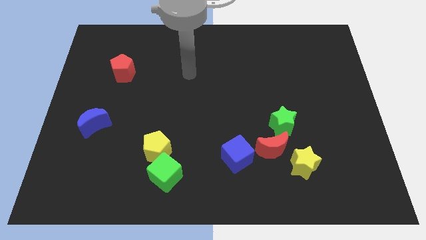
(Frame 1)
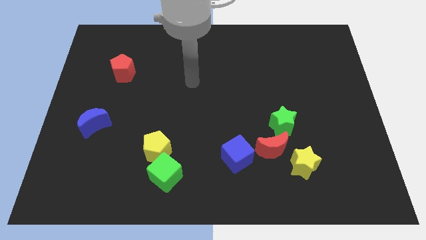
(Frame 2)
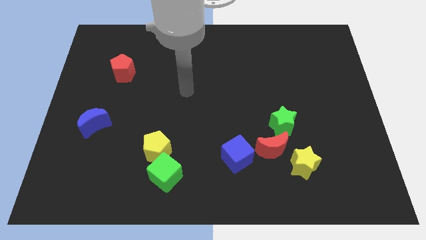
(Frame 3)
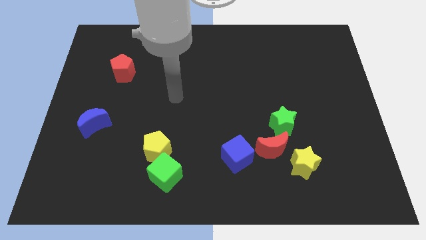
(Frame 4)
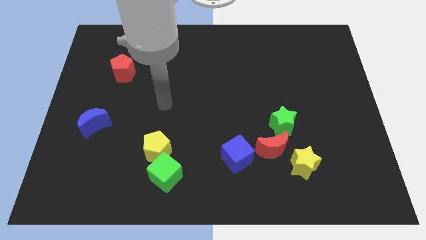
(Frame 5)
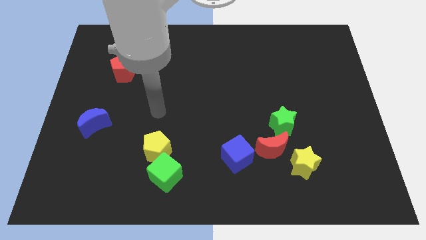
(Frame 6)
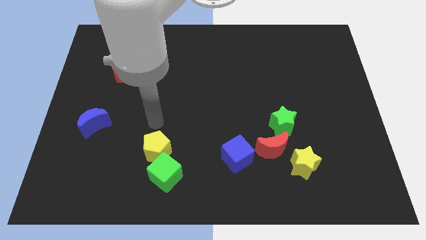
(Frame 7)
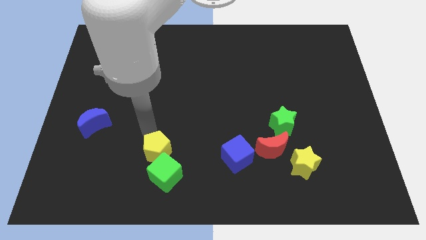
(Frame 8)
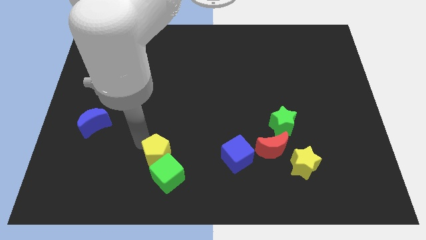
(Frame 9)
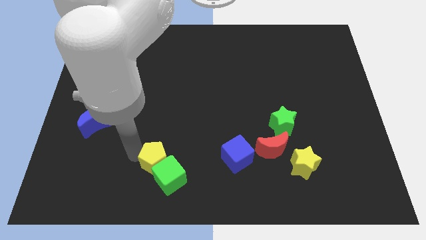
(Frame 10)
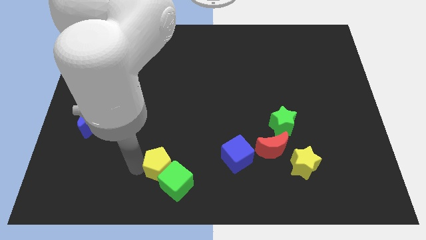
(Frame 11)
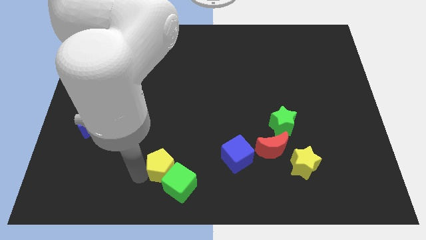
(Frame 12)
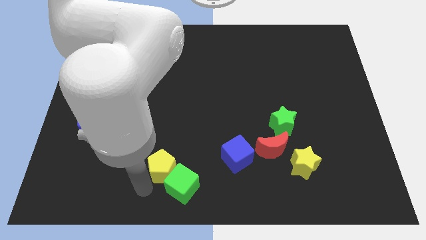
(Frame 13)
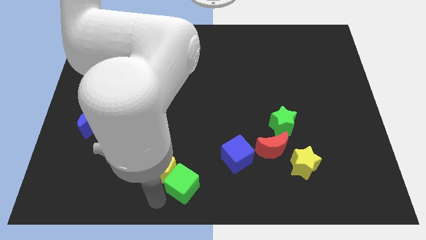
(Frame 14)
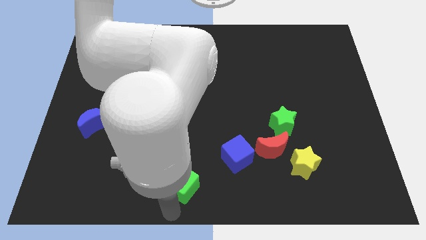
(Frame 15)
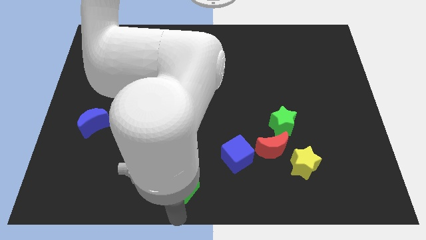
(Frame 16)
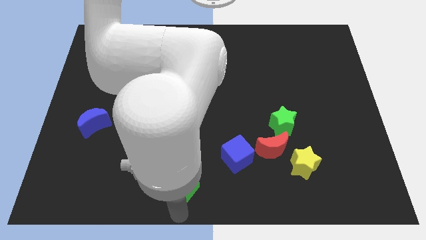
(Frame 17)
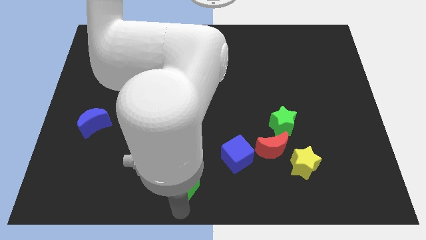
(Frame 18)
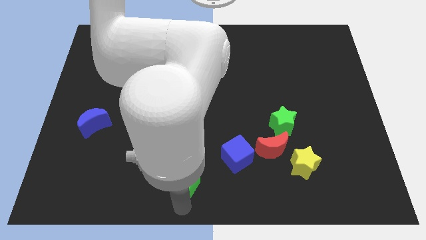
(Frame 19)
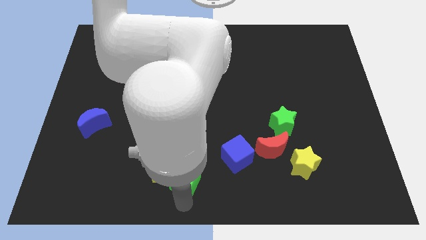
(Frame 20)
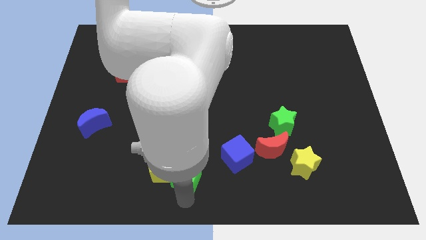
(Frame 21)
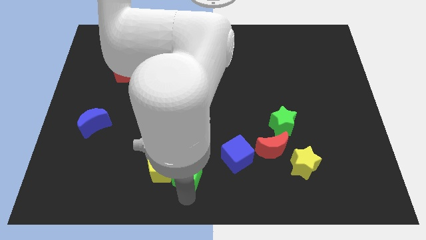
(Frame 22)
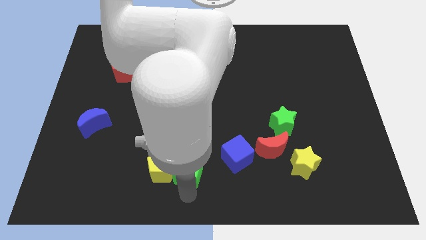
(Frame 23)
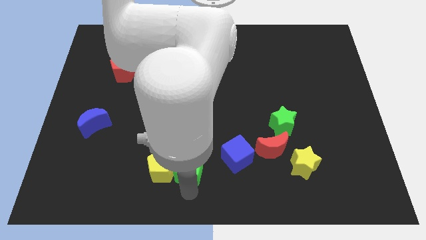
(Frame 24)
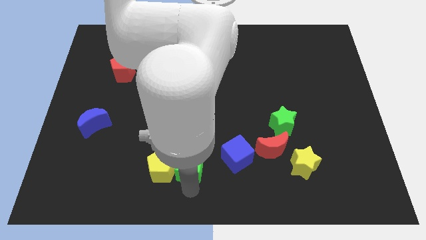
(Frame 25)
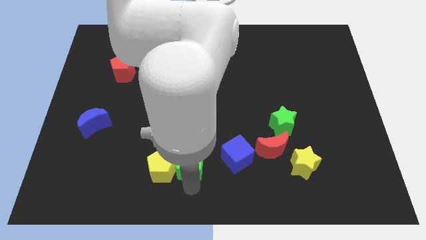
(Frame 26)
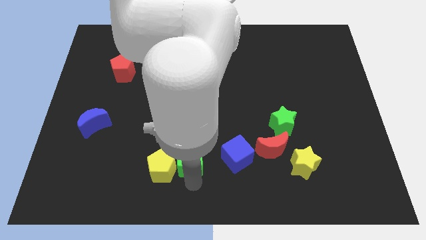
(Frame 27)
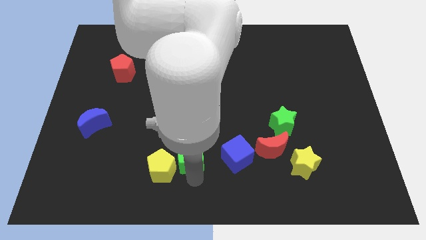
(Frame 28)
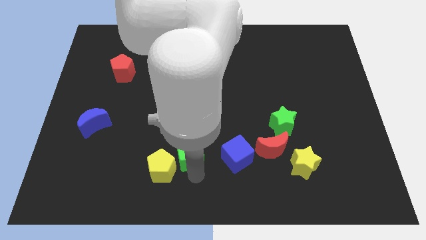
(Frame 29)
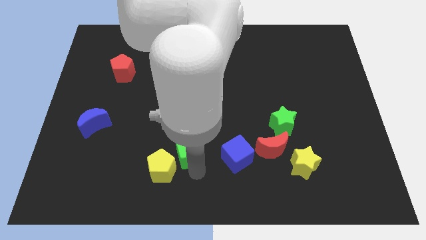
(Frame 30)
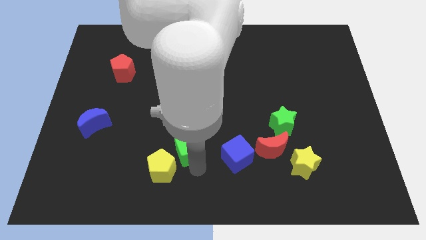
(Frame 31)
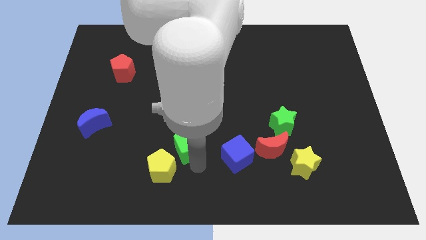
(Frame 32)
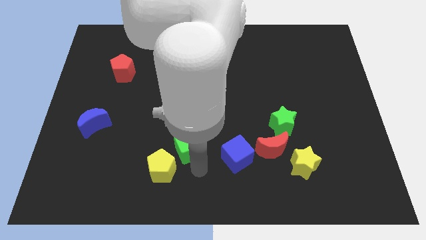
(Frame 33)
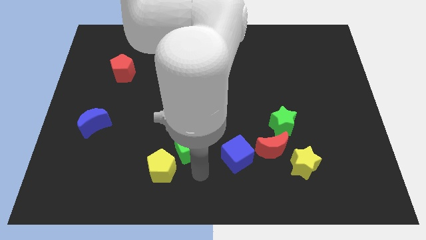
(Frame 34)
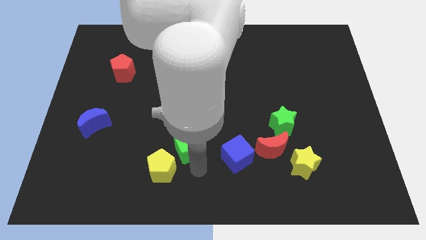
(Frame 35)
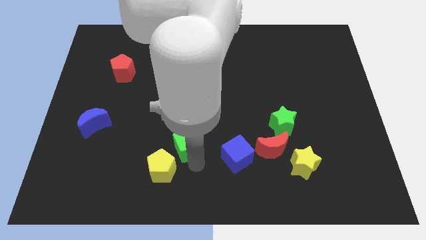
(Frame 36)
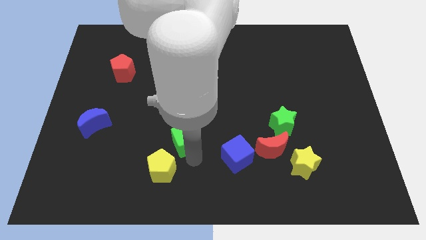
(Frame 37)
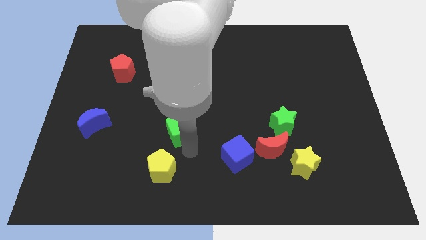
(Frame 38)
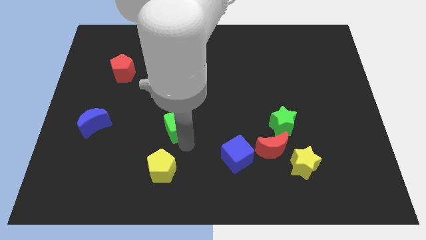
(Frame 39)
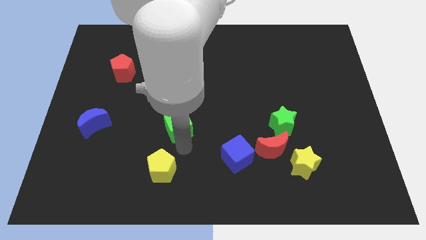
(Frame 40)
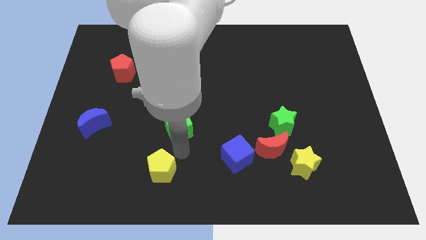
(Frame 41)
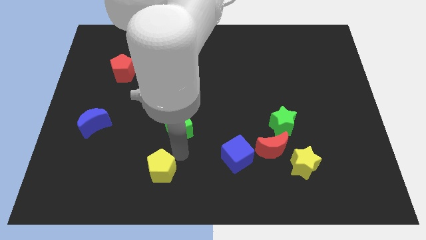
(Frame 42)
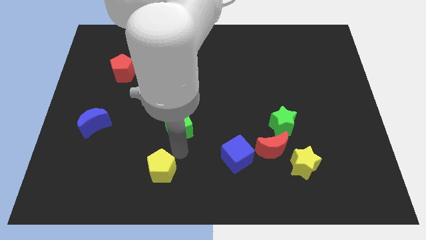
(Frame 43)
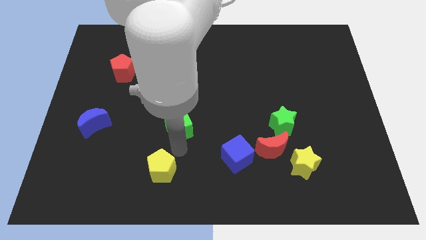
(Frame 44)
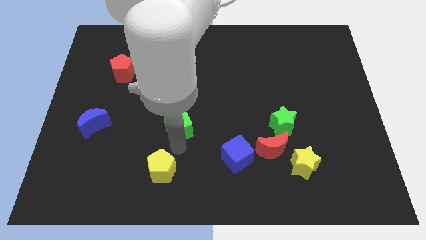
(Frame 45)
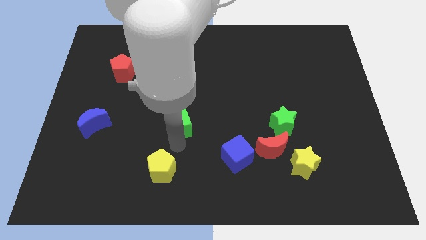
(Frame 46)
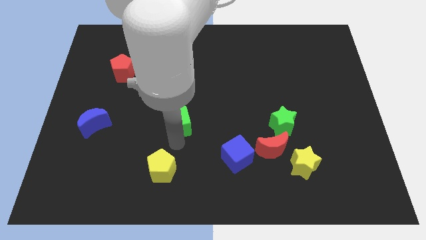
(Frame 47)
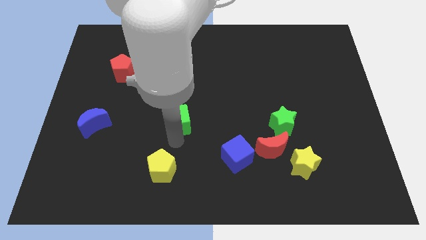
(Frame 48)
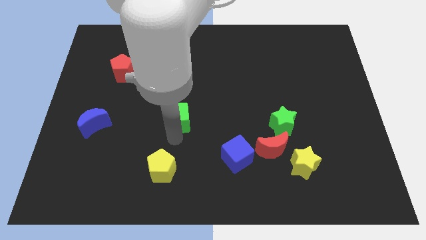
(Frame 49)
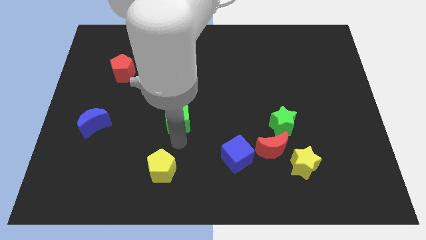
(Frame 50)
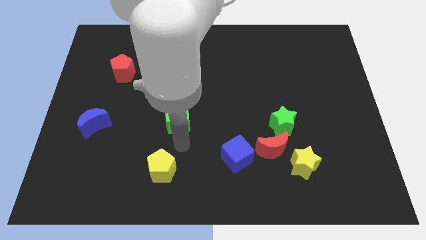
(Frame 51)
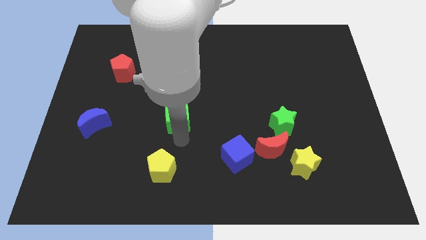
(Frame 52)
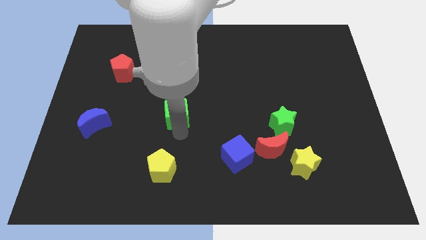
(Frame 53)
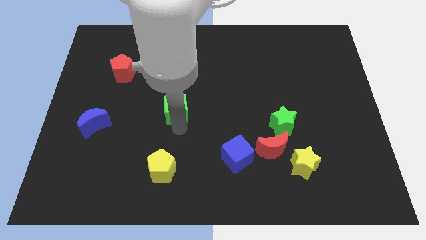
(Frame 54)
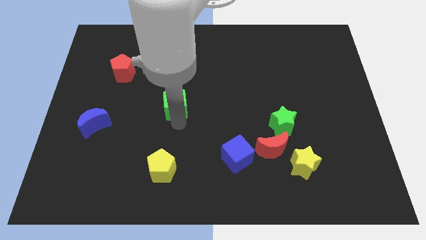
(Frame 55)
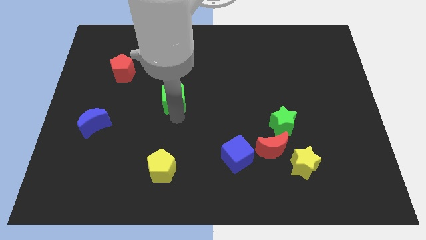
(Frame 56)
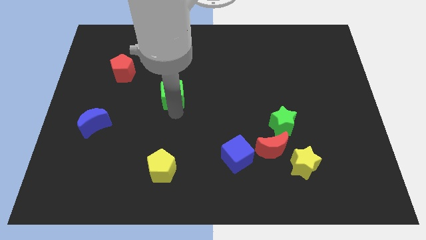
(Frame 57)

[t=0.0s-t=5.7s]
move the green cube up

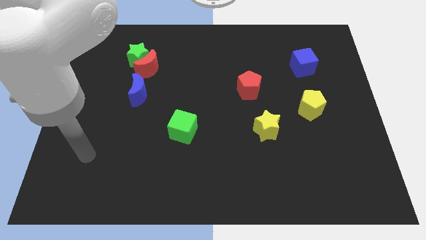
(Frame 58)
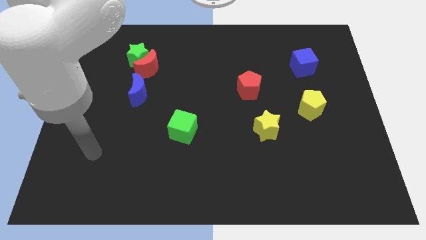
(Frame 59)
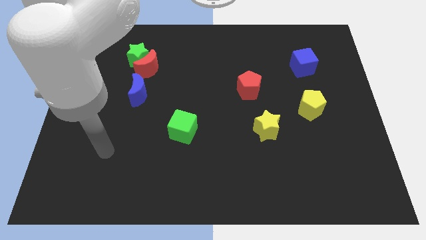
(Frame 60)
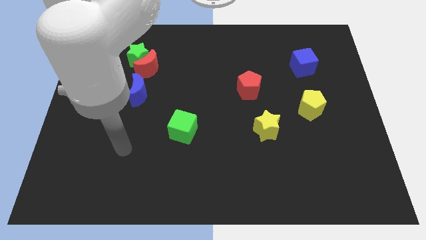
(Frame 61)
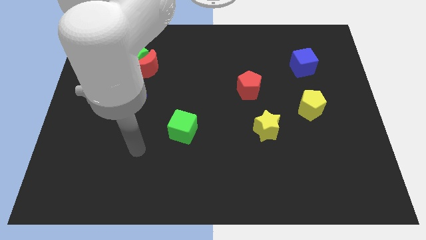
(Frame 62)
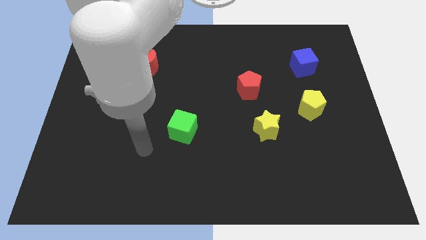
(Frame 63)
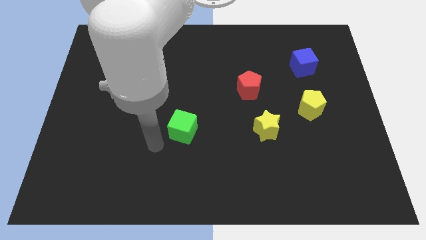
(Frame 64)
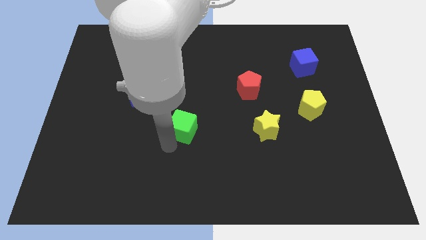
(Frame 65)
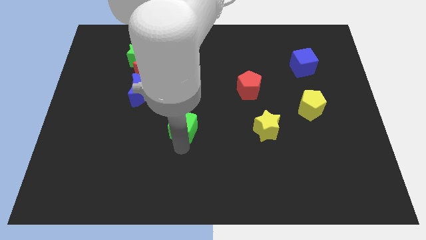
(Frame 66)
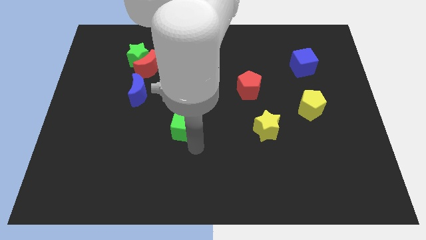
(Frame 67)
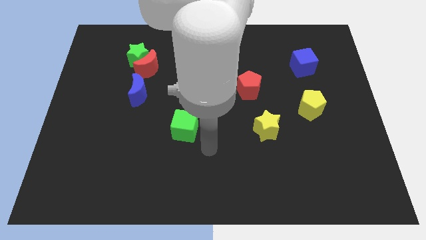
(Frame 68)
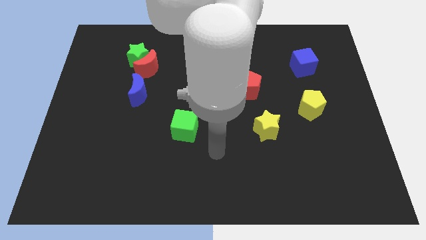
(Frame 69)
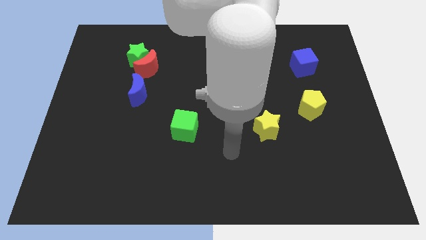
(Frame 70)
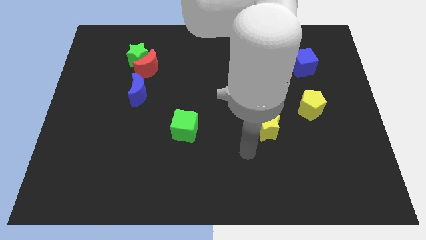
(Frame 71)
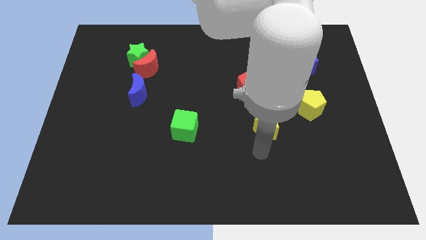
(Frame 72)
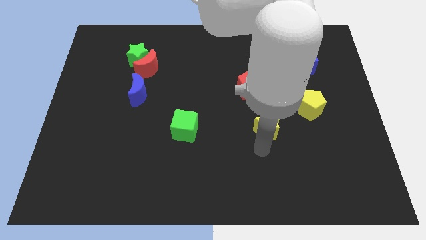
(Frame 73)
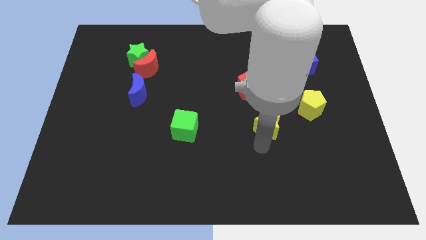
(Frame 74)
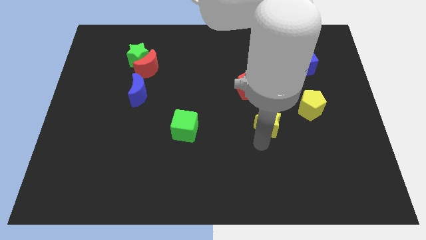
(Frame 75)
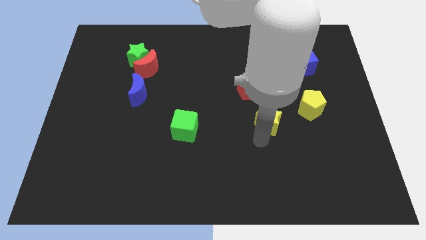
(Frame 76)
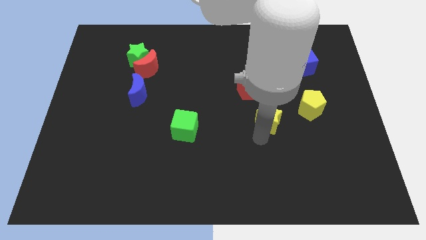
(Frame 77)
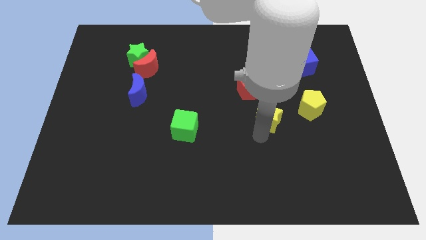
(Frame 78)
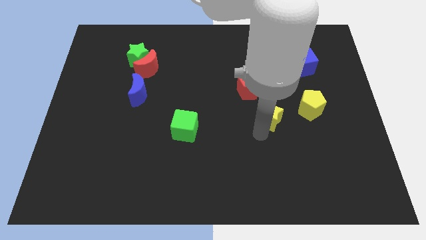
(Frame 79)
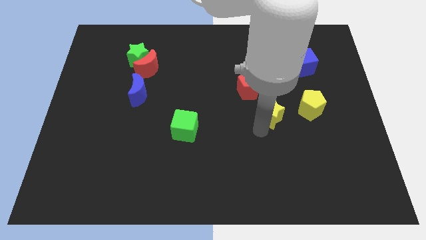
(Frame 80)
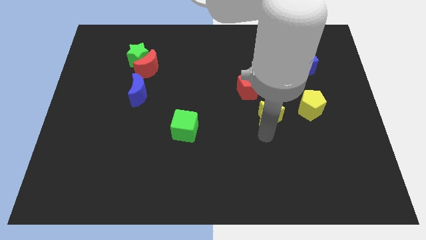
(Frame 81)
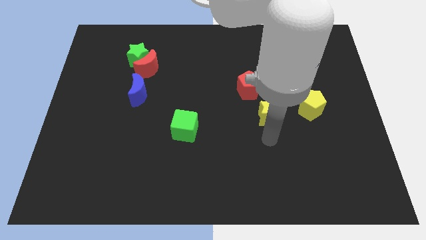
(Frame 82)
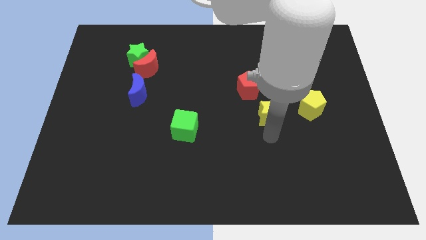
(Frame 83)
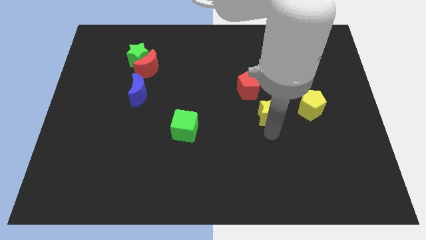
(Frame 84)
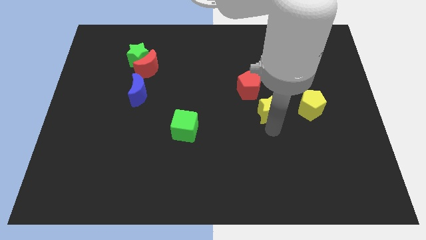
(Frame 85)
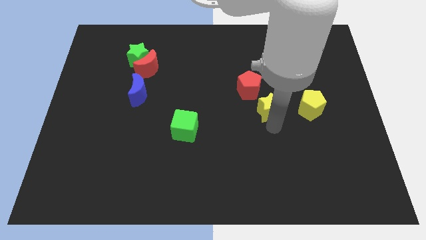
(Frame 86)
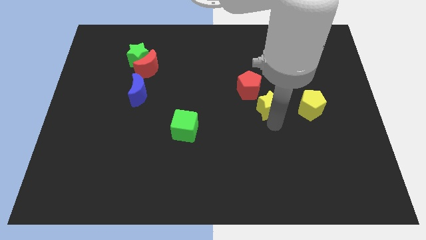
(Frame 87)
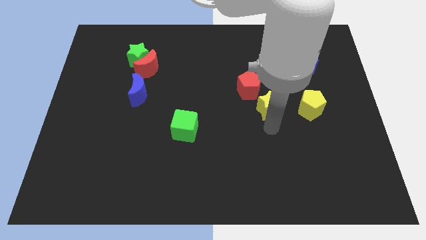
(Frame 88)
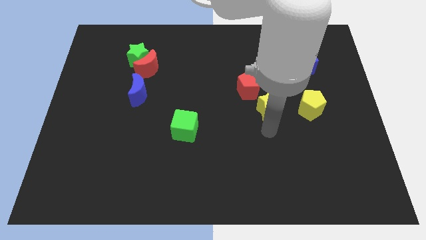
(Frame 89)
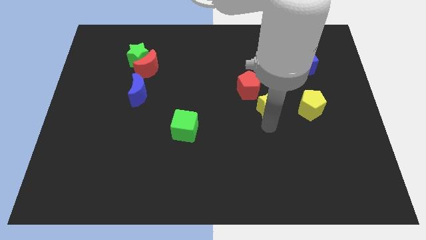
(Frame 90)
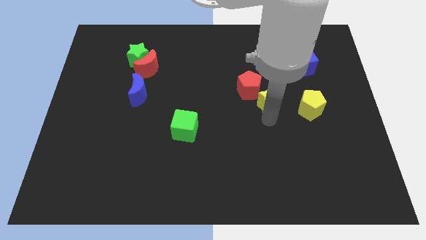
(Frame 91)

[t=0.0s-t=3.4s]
move the yellow star a bit upwards
